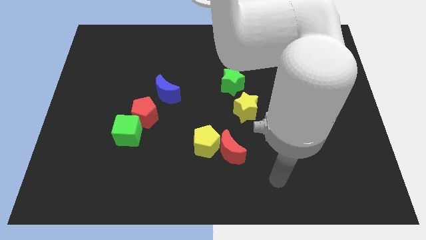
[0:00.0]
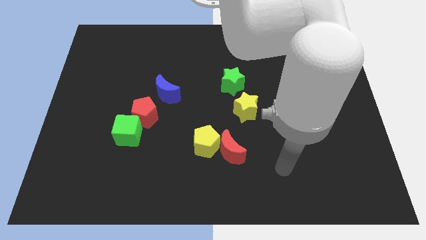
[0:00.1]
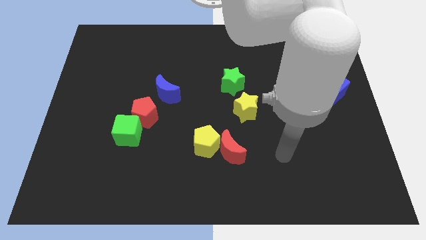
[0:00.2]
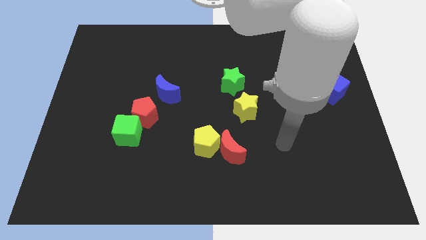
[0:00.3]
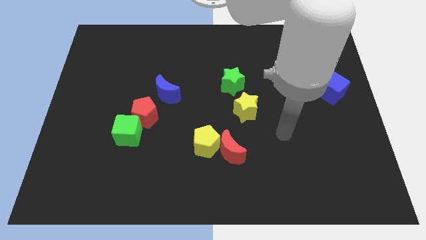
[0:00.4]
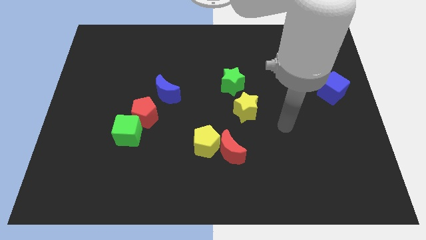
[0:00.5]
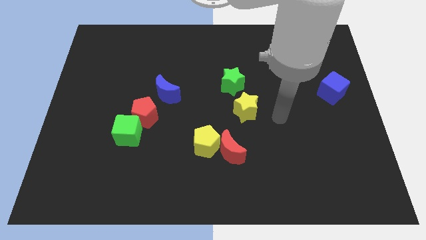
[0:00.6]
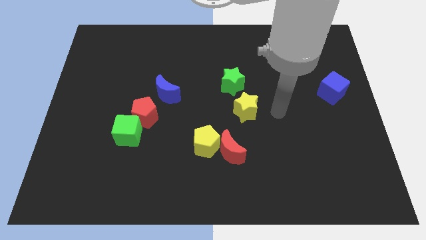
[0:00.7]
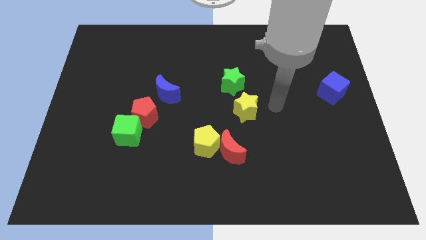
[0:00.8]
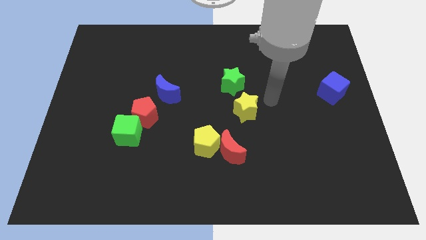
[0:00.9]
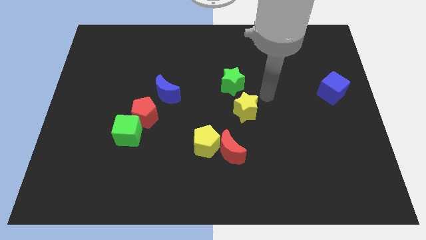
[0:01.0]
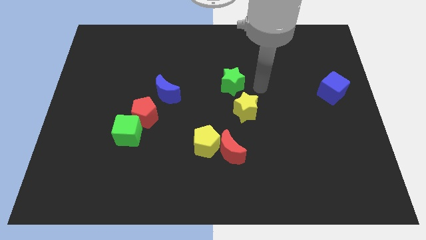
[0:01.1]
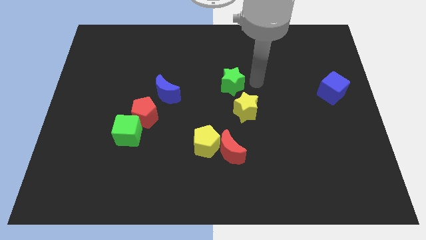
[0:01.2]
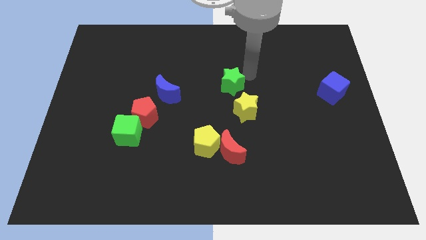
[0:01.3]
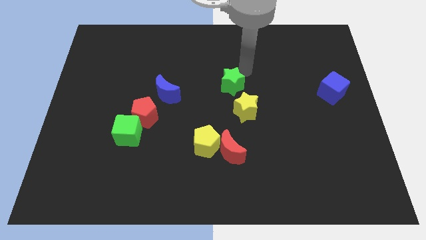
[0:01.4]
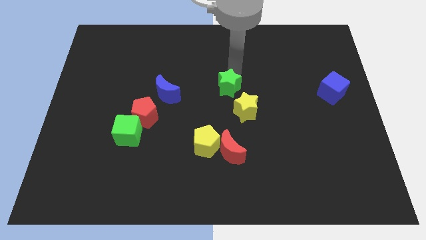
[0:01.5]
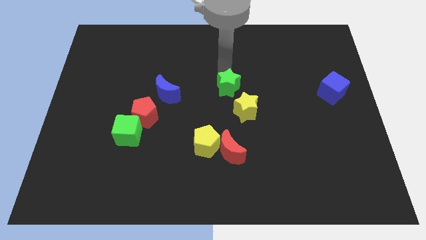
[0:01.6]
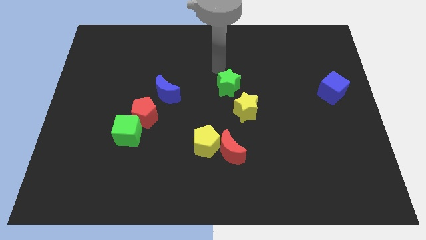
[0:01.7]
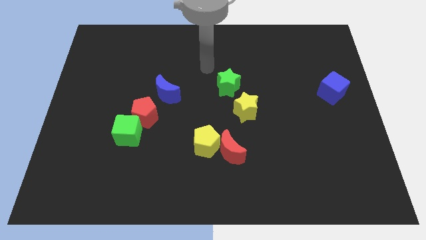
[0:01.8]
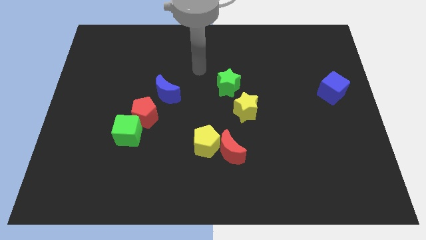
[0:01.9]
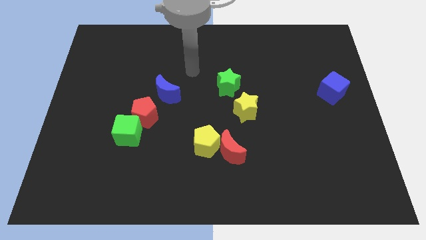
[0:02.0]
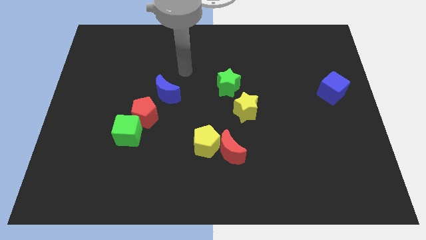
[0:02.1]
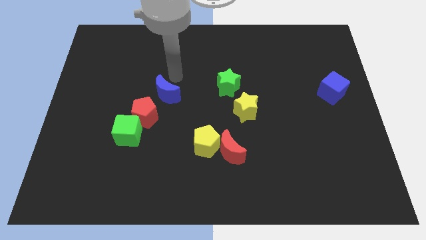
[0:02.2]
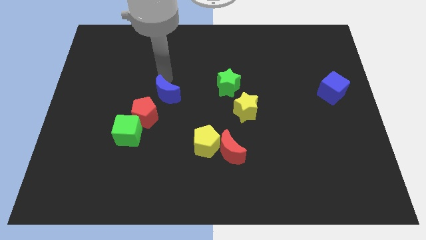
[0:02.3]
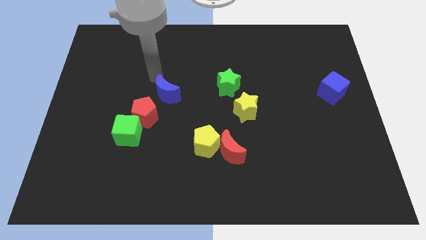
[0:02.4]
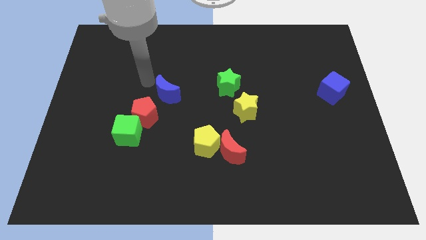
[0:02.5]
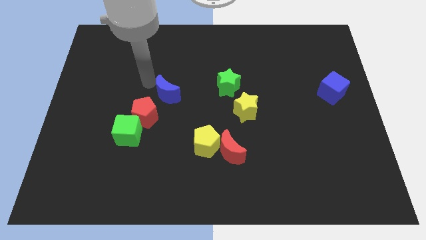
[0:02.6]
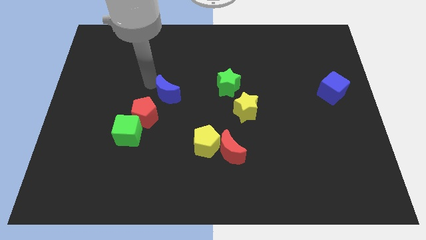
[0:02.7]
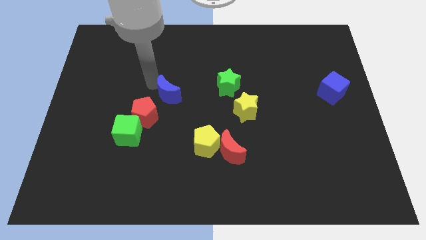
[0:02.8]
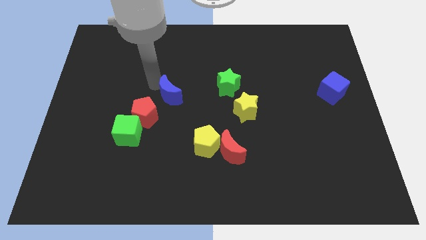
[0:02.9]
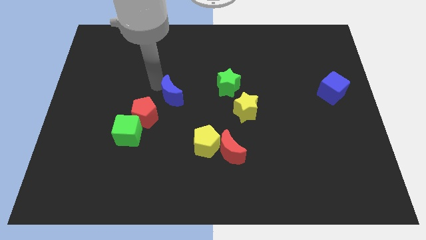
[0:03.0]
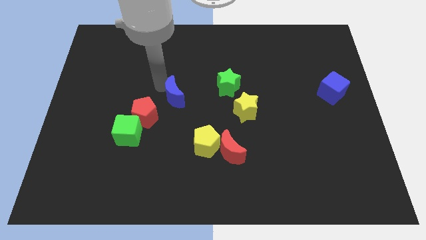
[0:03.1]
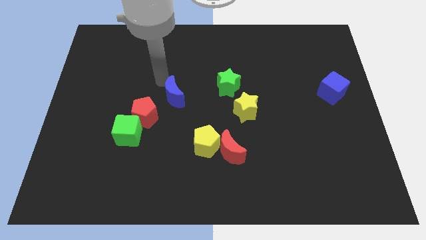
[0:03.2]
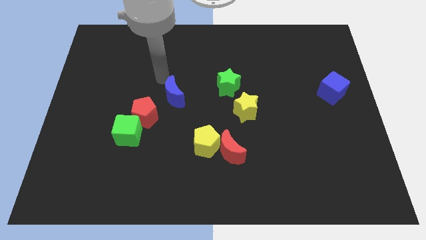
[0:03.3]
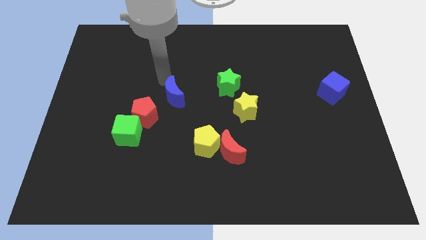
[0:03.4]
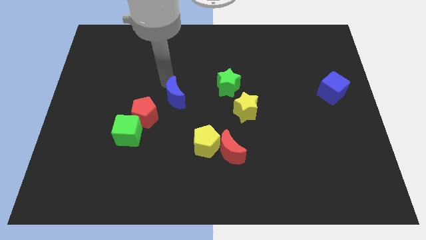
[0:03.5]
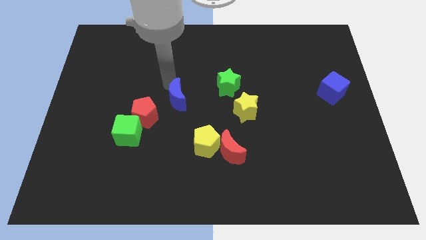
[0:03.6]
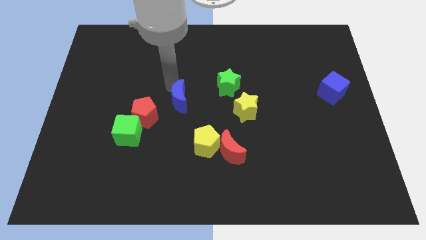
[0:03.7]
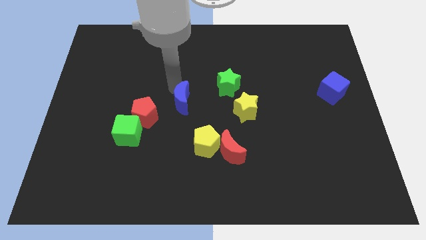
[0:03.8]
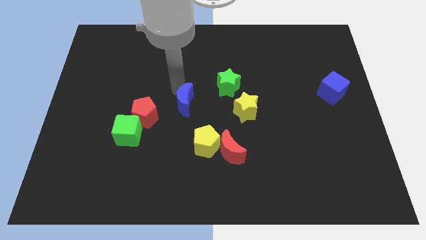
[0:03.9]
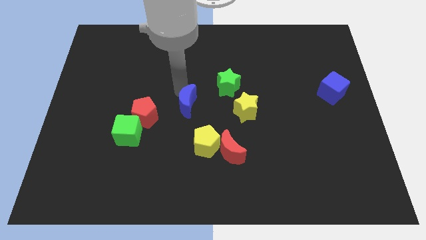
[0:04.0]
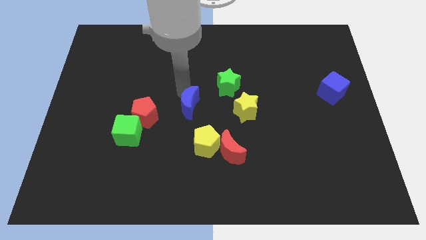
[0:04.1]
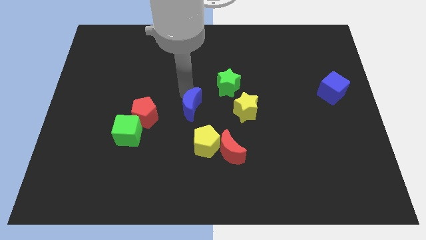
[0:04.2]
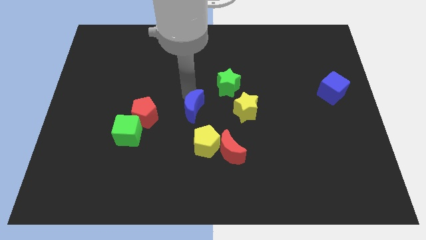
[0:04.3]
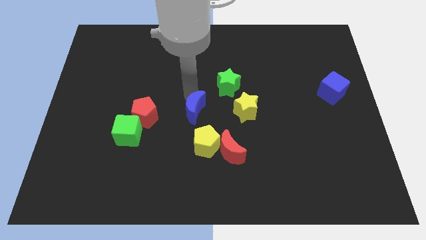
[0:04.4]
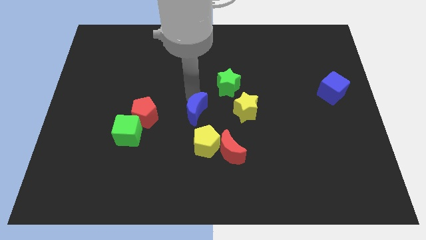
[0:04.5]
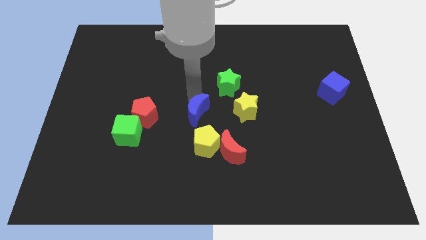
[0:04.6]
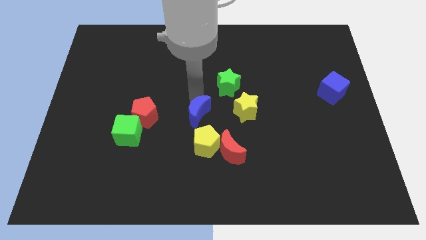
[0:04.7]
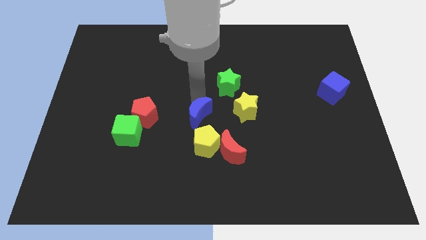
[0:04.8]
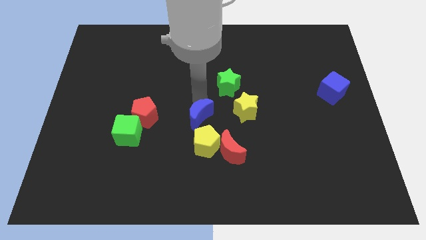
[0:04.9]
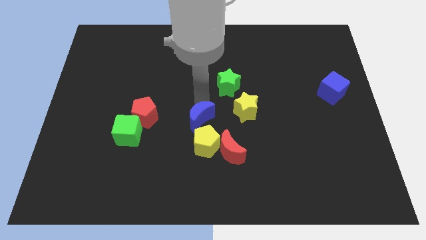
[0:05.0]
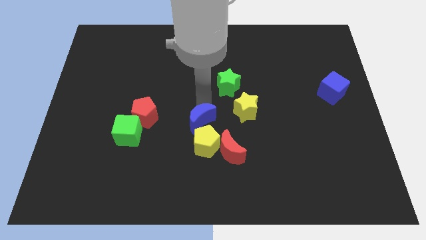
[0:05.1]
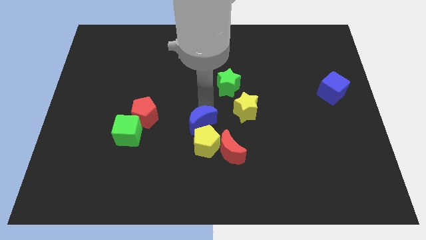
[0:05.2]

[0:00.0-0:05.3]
push the blue moon to the yellow pentagon

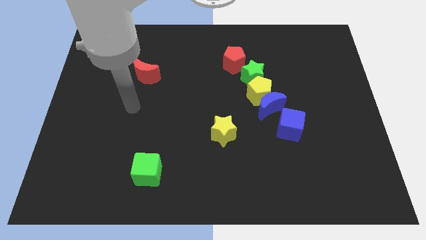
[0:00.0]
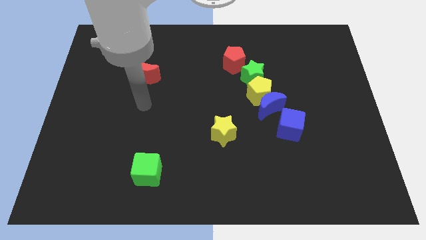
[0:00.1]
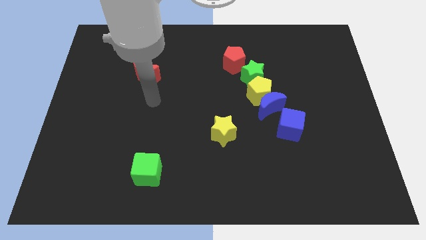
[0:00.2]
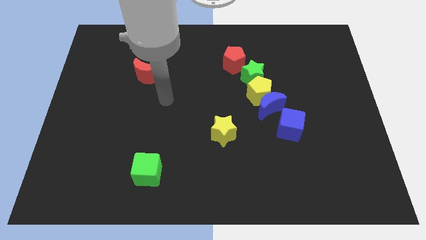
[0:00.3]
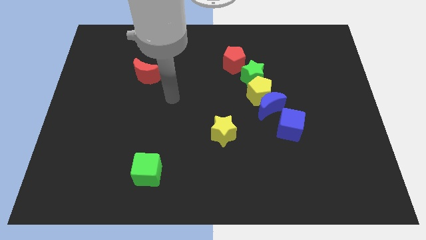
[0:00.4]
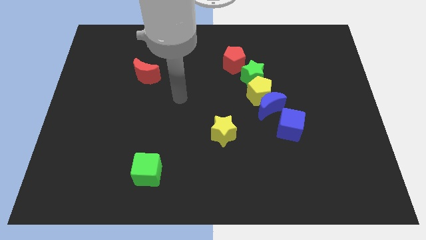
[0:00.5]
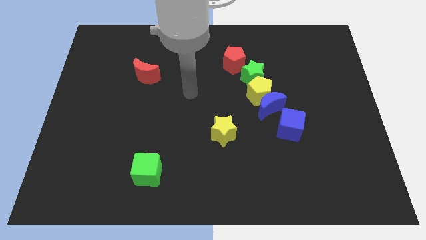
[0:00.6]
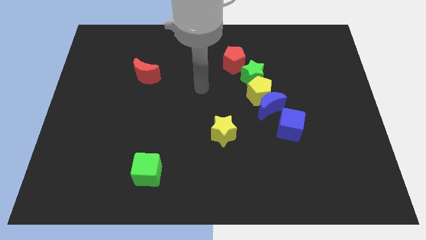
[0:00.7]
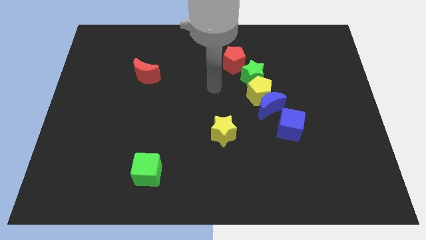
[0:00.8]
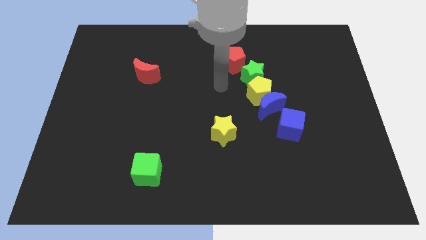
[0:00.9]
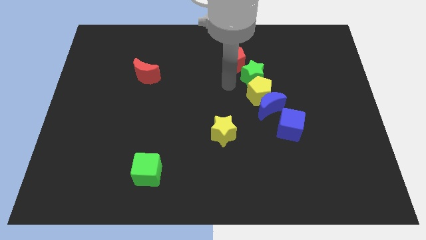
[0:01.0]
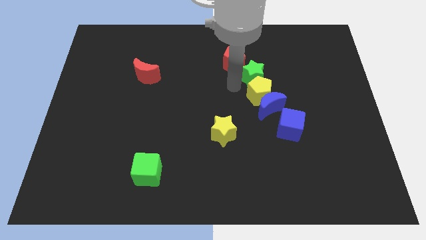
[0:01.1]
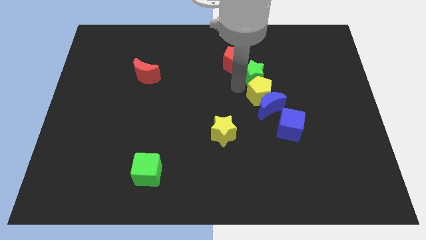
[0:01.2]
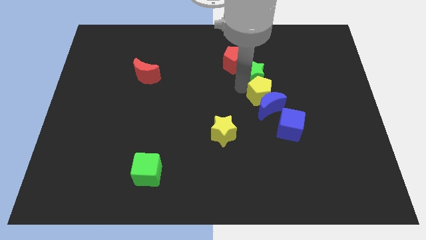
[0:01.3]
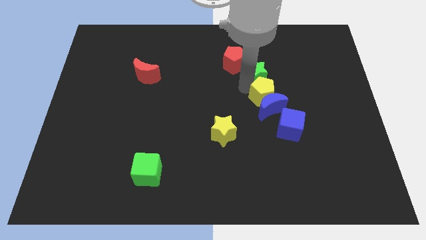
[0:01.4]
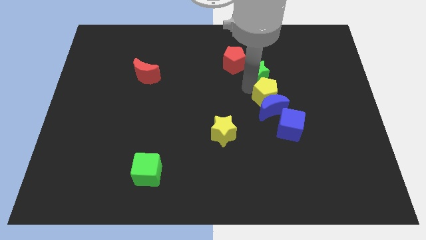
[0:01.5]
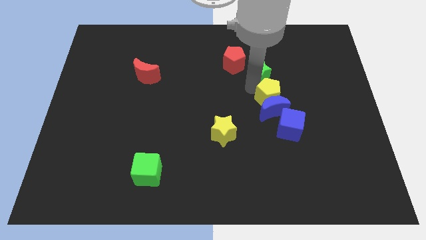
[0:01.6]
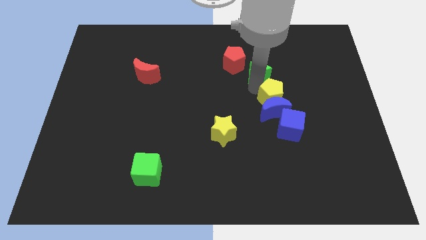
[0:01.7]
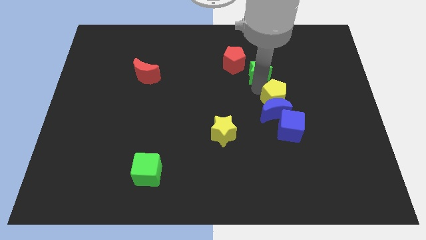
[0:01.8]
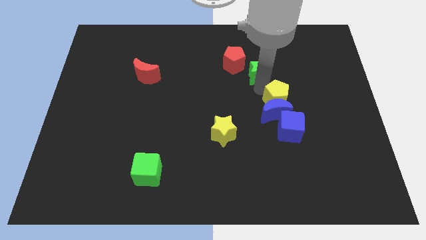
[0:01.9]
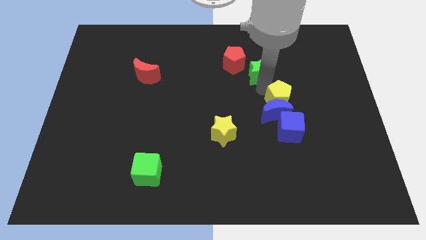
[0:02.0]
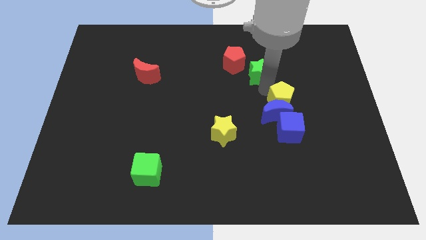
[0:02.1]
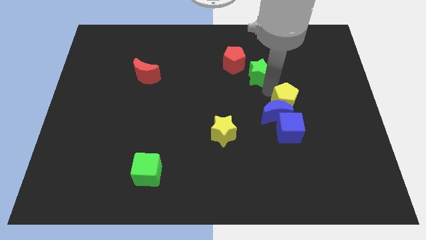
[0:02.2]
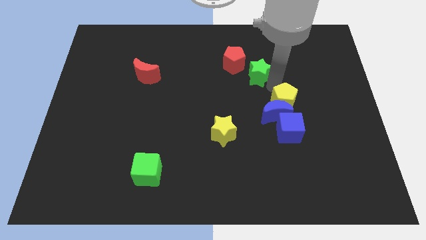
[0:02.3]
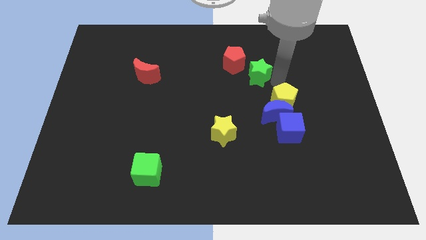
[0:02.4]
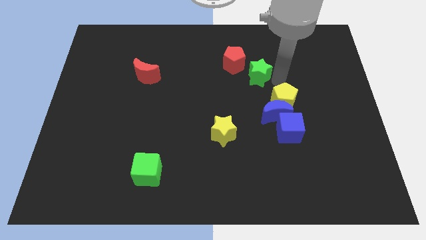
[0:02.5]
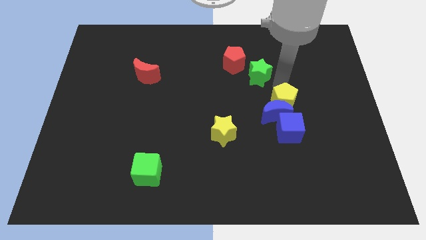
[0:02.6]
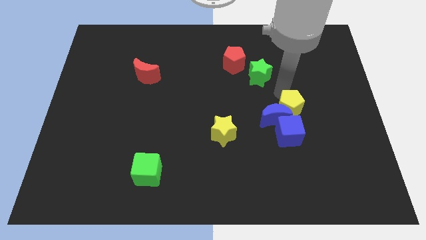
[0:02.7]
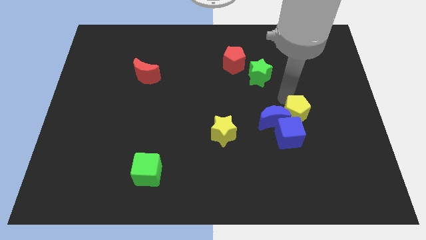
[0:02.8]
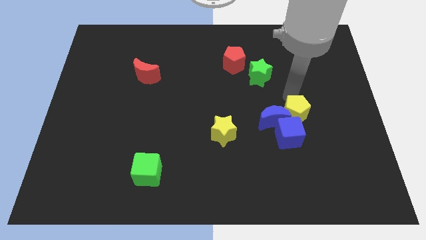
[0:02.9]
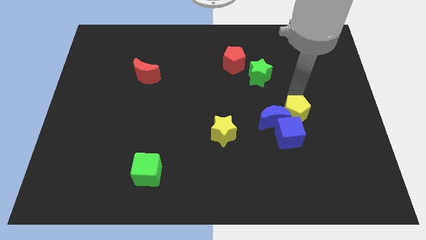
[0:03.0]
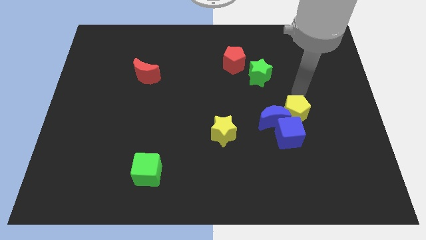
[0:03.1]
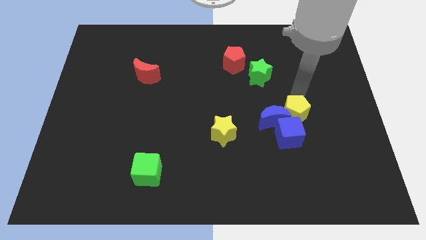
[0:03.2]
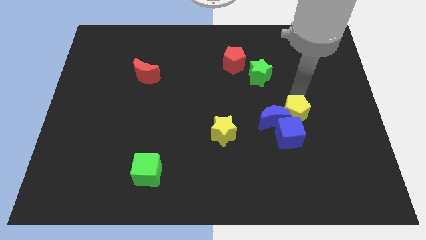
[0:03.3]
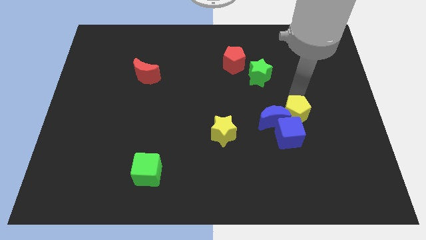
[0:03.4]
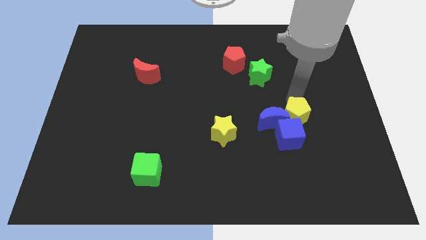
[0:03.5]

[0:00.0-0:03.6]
slide the yellow pentagon close to the blue cube
